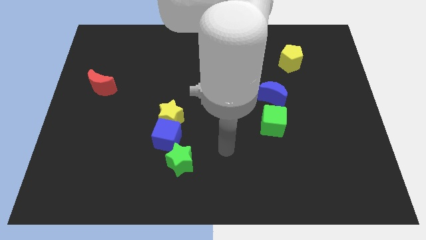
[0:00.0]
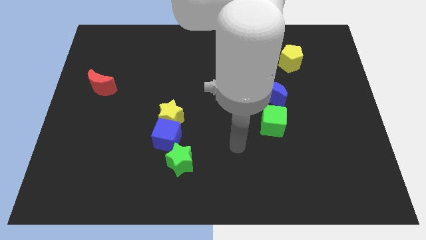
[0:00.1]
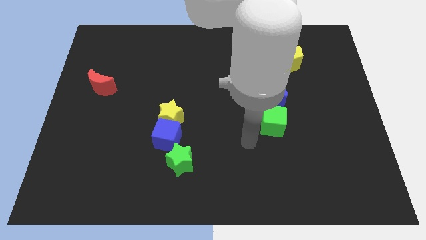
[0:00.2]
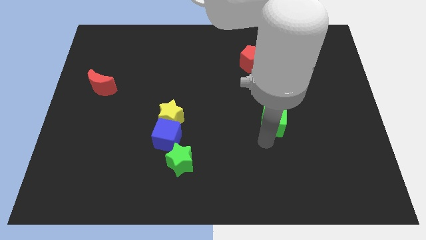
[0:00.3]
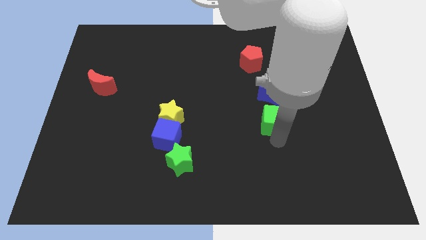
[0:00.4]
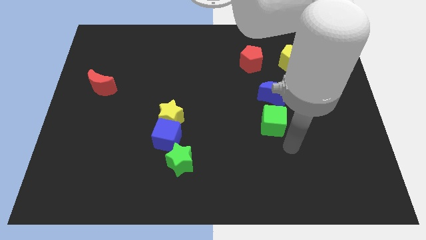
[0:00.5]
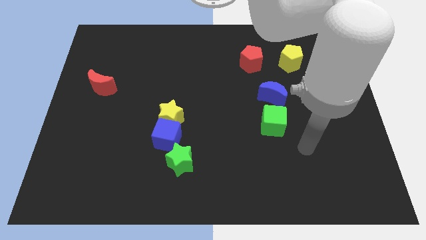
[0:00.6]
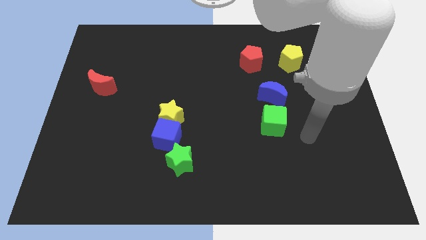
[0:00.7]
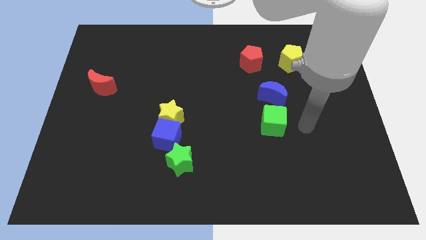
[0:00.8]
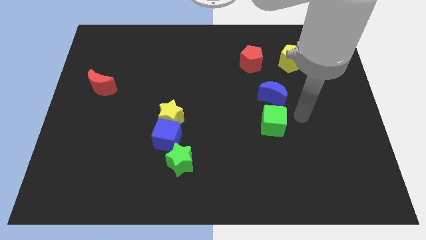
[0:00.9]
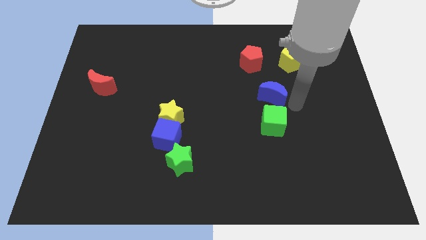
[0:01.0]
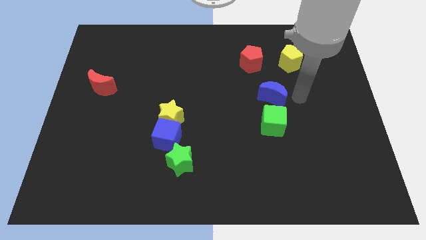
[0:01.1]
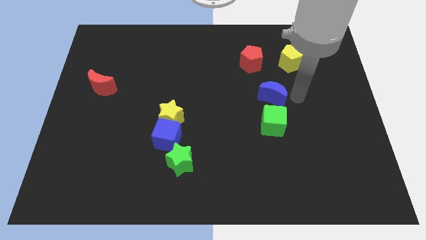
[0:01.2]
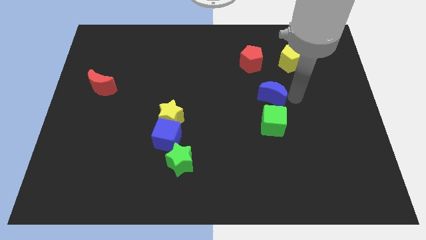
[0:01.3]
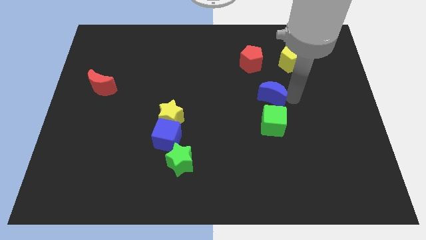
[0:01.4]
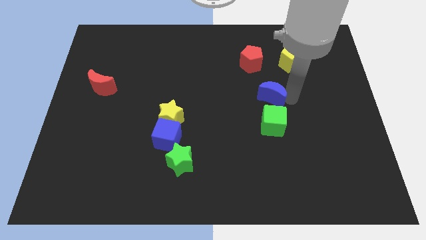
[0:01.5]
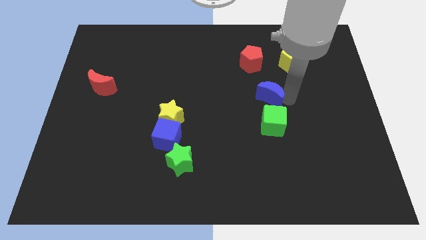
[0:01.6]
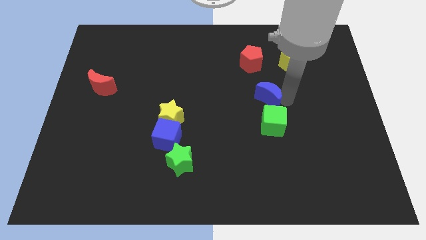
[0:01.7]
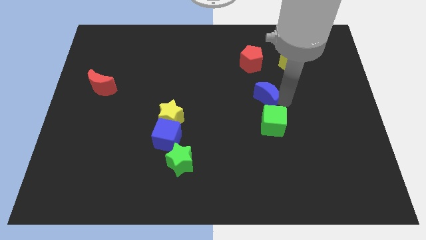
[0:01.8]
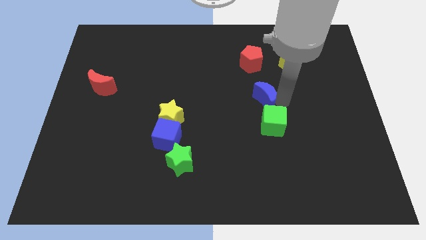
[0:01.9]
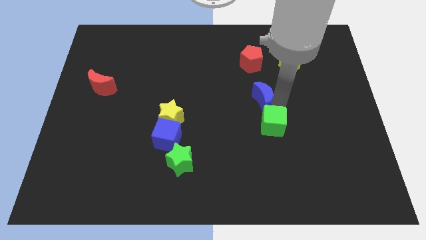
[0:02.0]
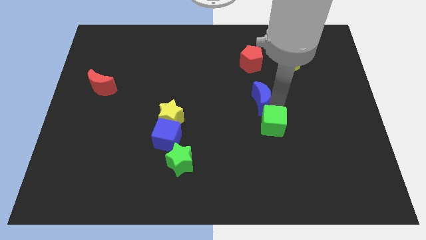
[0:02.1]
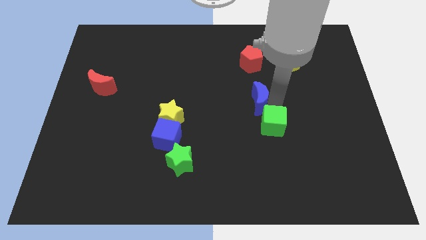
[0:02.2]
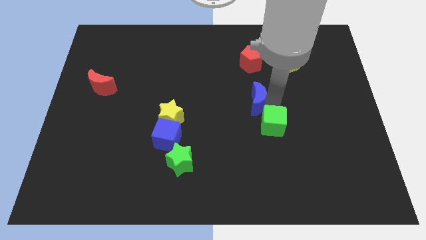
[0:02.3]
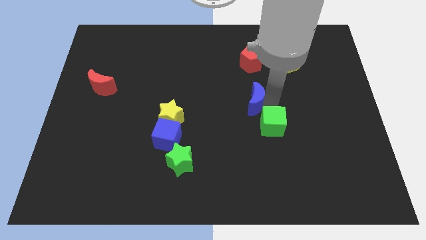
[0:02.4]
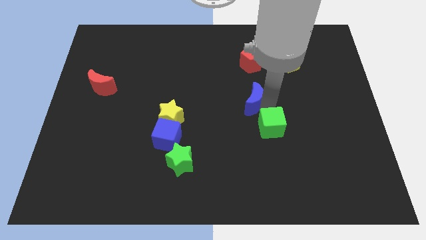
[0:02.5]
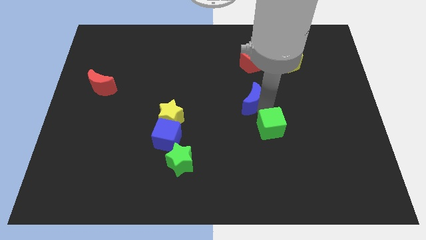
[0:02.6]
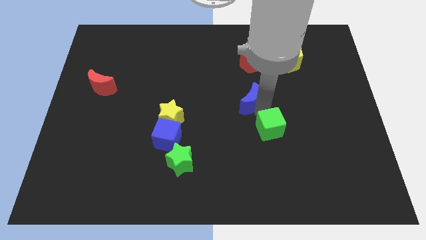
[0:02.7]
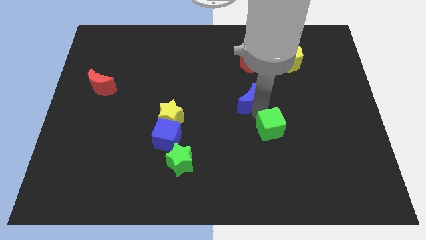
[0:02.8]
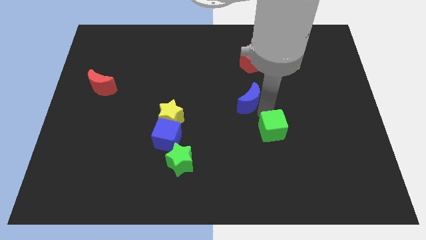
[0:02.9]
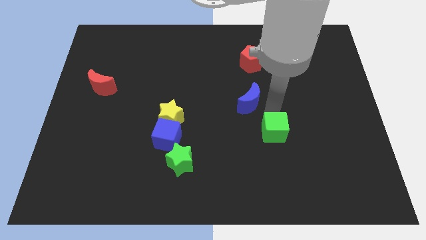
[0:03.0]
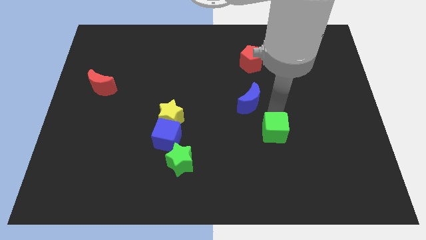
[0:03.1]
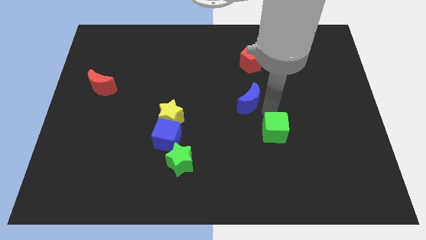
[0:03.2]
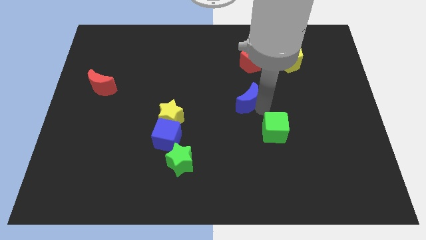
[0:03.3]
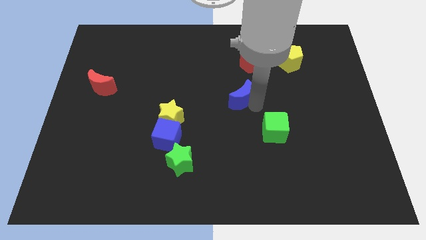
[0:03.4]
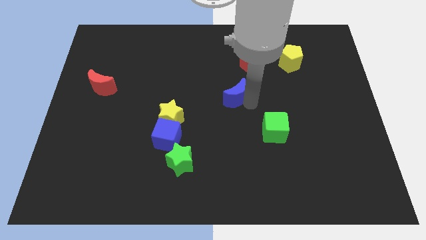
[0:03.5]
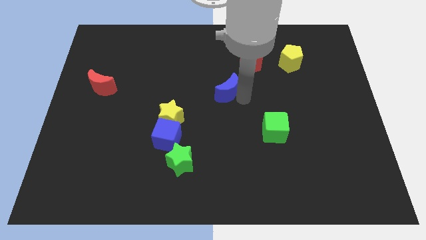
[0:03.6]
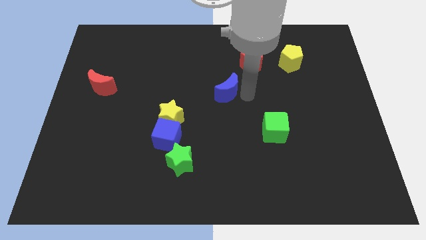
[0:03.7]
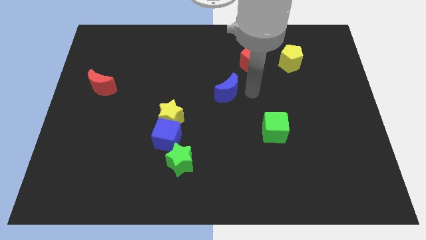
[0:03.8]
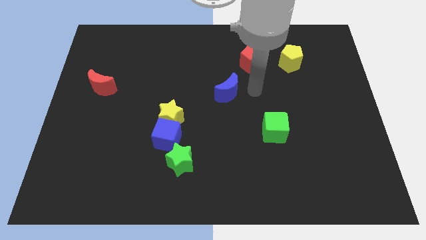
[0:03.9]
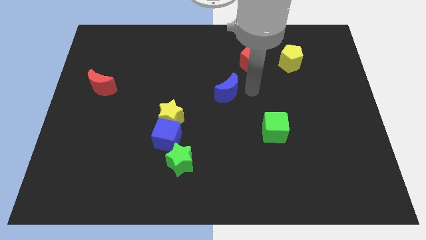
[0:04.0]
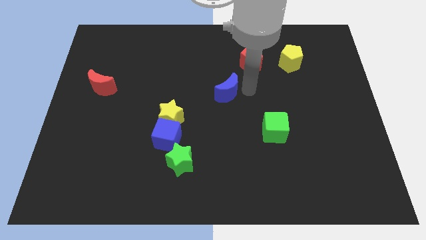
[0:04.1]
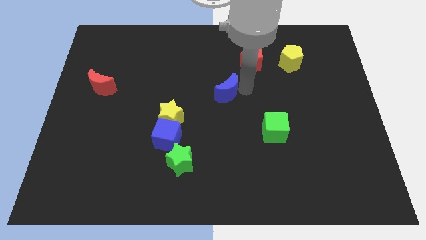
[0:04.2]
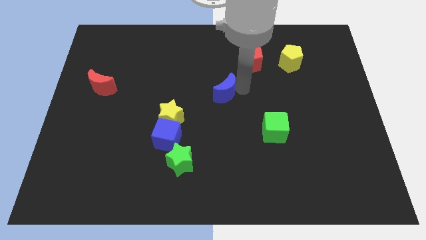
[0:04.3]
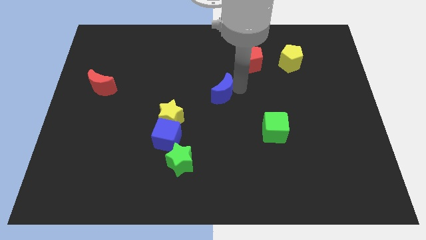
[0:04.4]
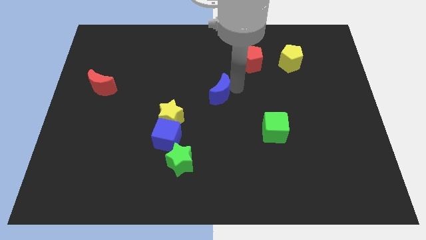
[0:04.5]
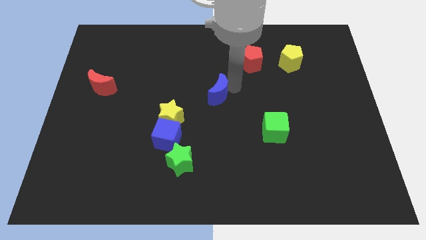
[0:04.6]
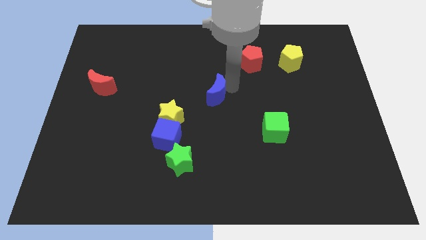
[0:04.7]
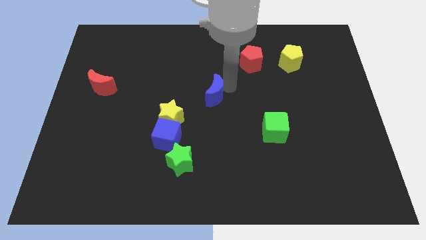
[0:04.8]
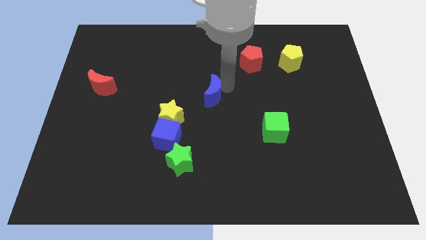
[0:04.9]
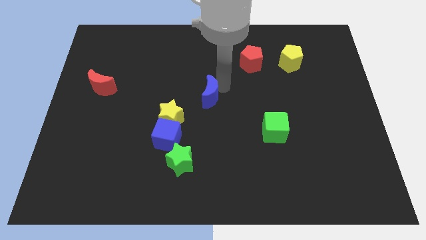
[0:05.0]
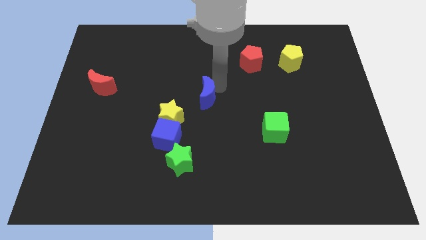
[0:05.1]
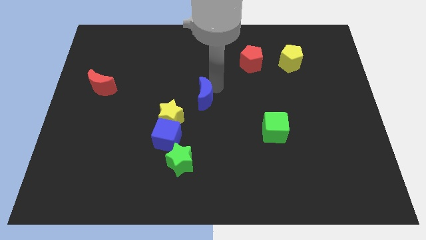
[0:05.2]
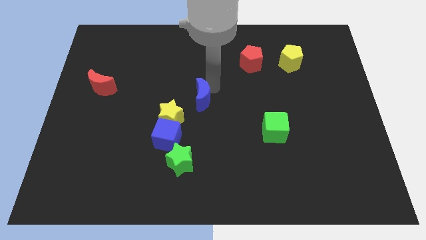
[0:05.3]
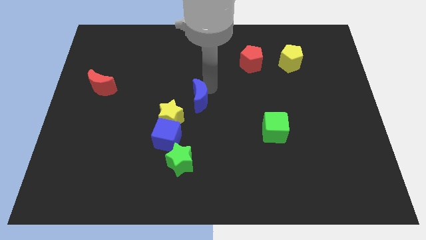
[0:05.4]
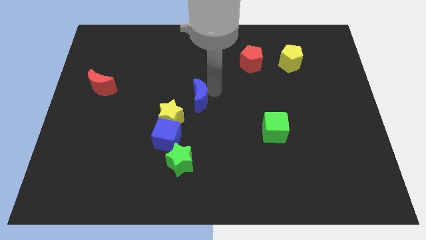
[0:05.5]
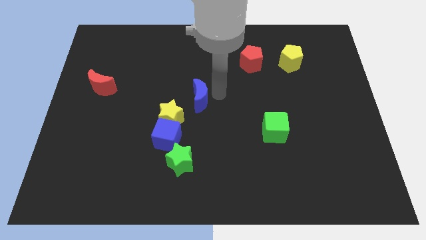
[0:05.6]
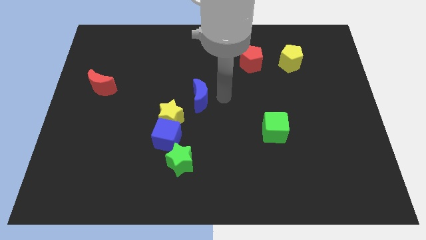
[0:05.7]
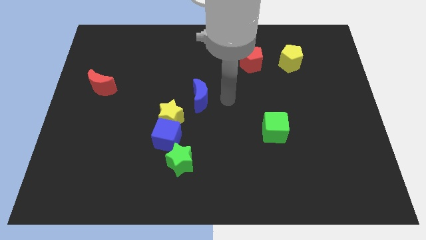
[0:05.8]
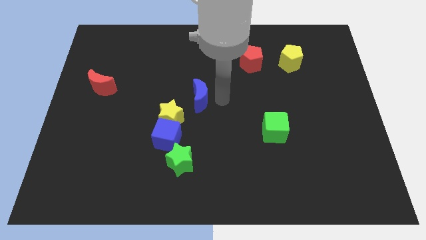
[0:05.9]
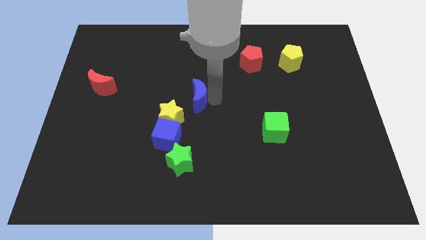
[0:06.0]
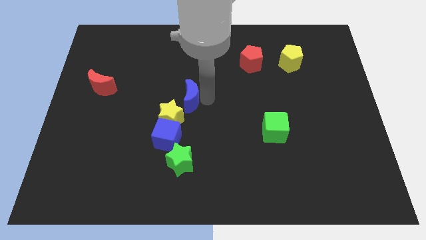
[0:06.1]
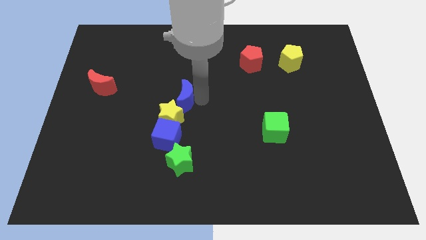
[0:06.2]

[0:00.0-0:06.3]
slide the blue moon to the left

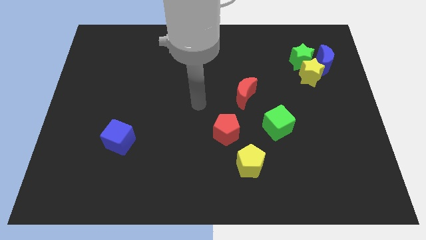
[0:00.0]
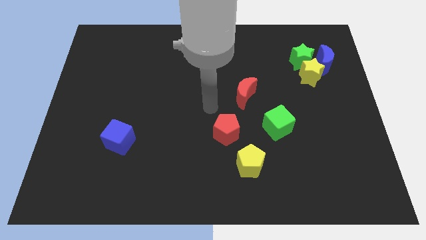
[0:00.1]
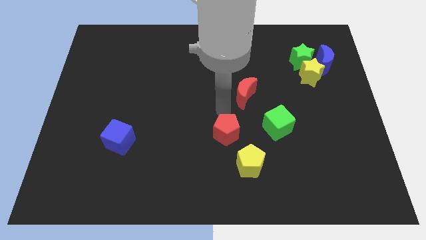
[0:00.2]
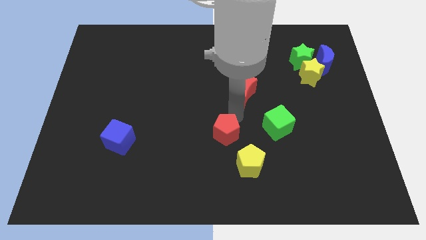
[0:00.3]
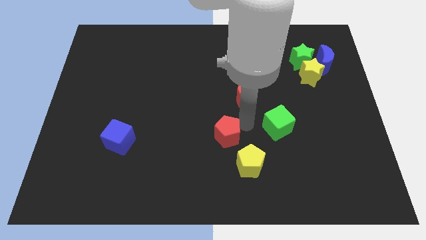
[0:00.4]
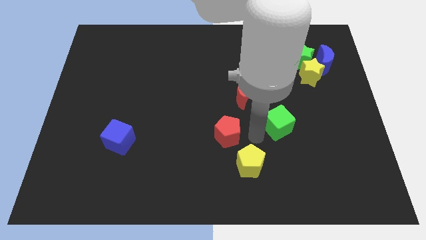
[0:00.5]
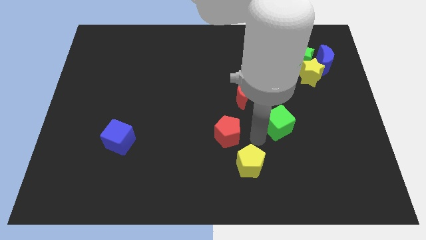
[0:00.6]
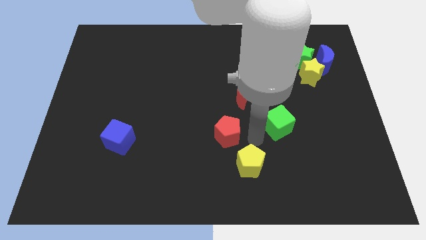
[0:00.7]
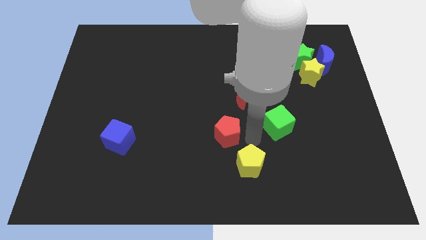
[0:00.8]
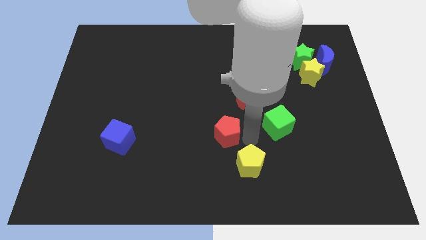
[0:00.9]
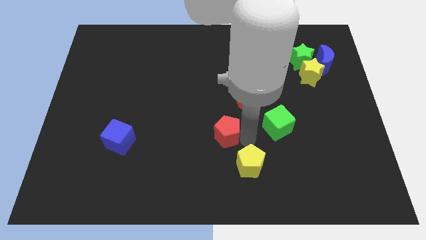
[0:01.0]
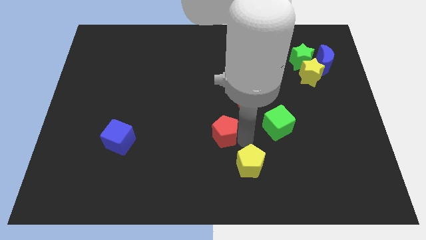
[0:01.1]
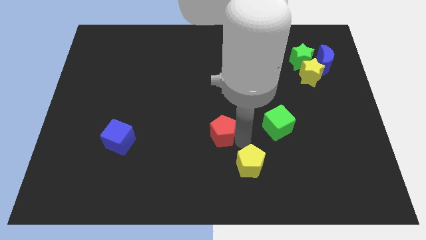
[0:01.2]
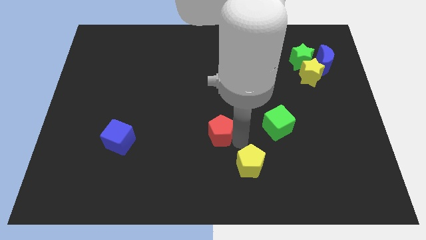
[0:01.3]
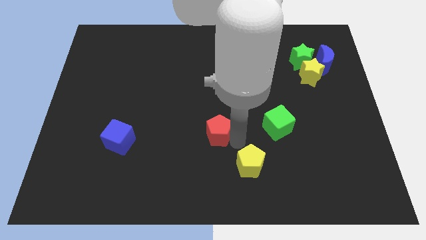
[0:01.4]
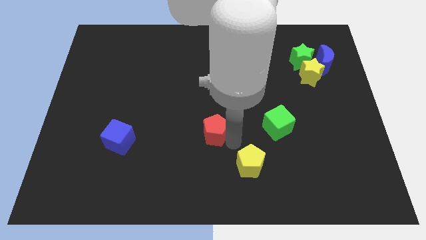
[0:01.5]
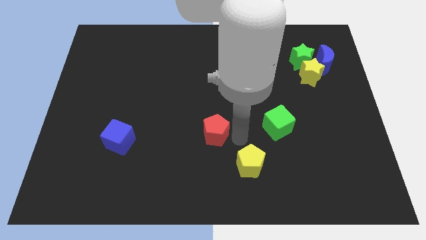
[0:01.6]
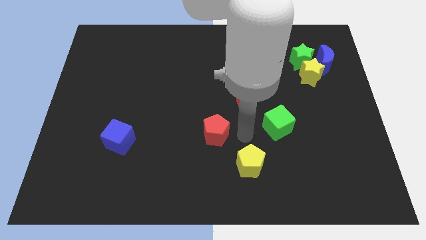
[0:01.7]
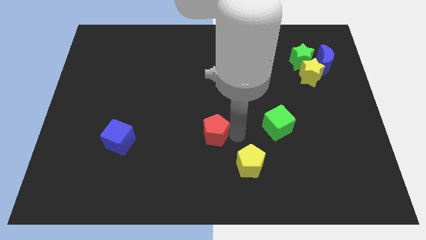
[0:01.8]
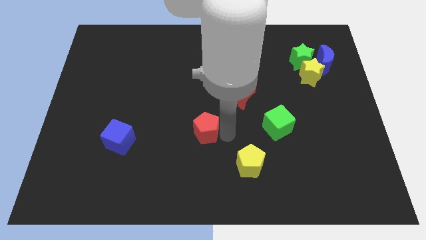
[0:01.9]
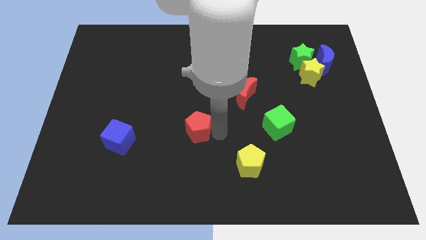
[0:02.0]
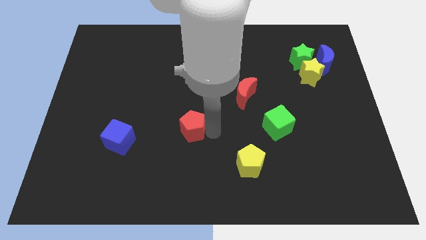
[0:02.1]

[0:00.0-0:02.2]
push the red pentagon to the left somewhat
